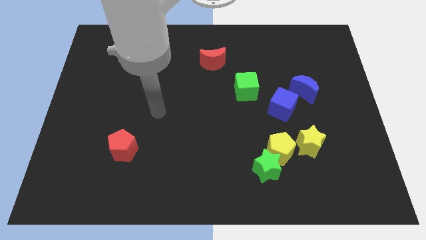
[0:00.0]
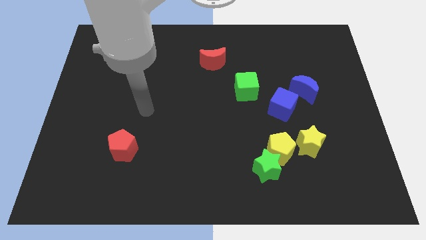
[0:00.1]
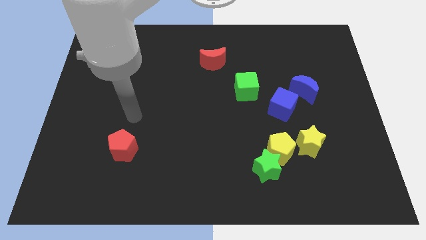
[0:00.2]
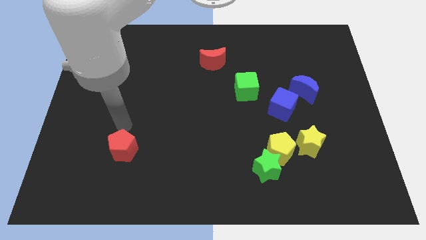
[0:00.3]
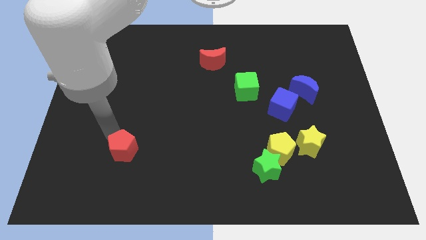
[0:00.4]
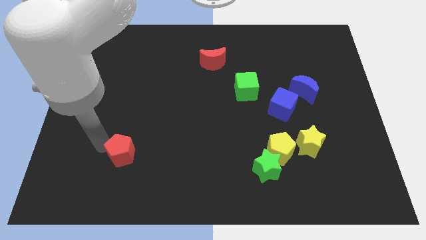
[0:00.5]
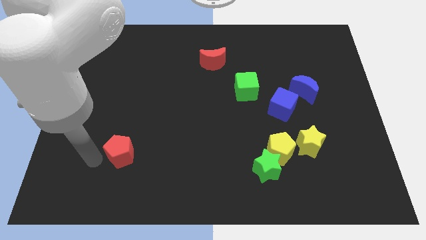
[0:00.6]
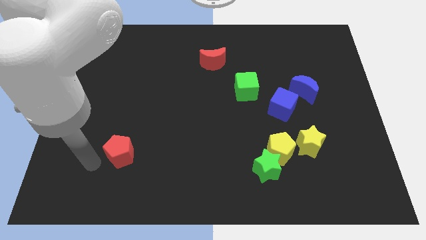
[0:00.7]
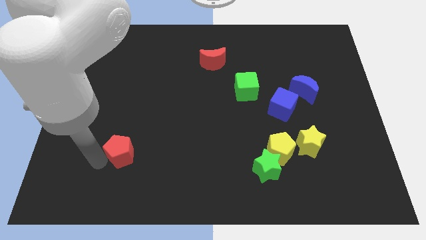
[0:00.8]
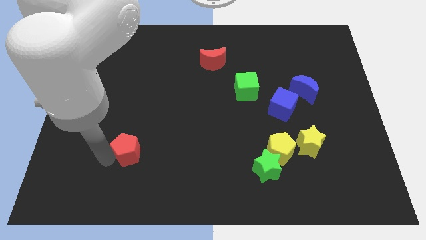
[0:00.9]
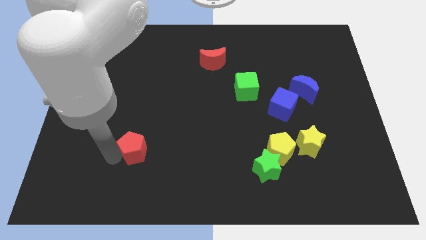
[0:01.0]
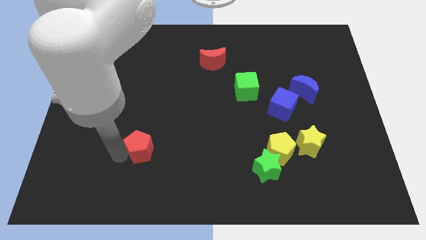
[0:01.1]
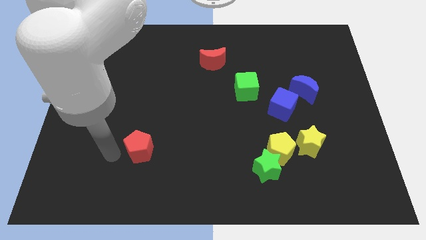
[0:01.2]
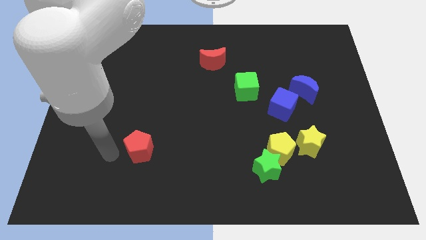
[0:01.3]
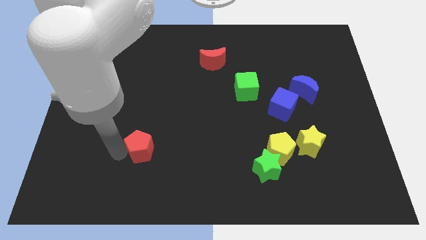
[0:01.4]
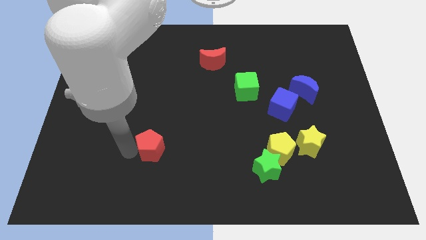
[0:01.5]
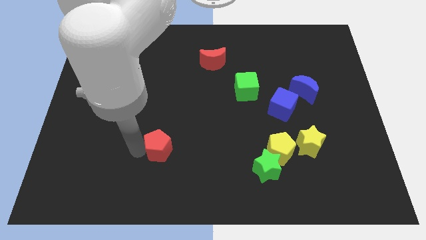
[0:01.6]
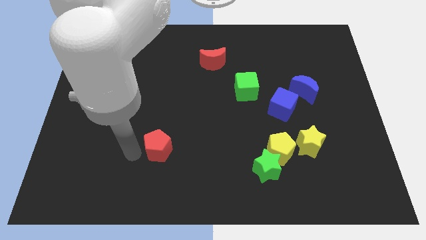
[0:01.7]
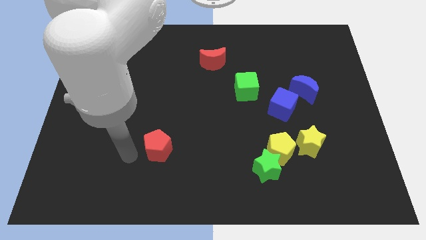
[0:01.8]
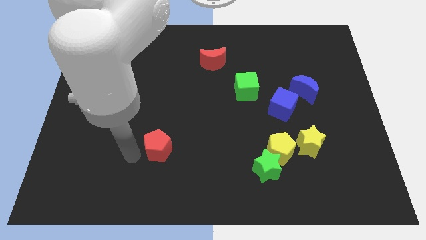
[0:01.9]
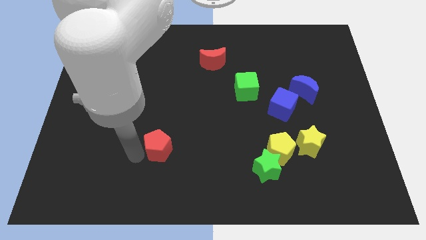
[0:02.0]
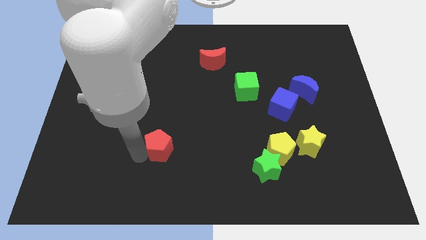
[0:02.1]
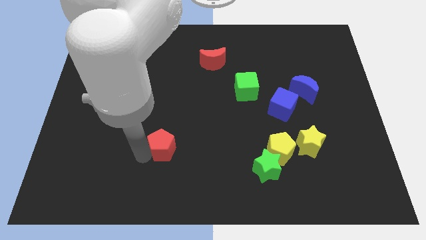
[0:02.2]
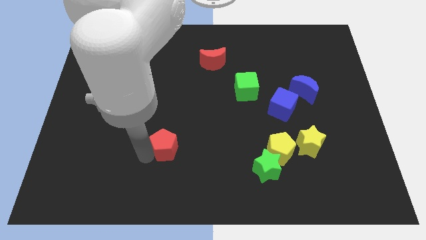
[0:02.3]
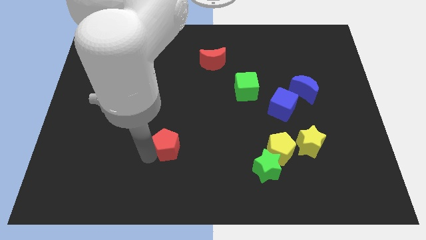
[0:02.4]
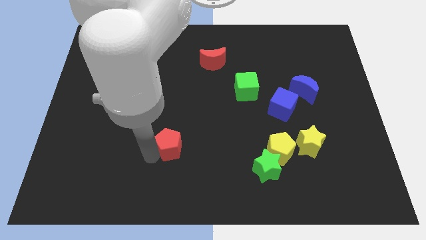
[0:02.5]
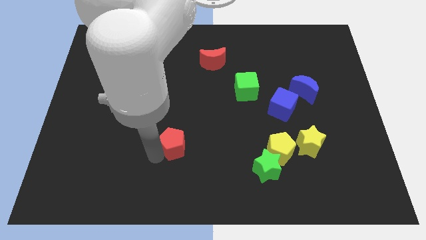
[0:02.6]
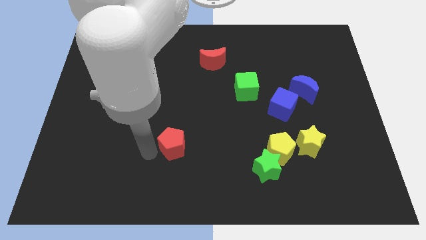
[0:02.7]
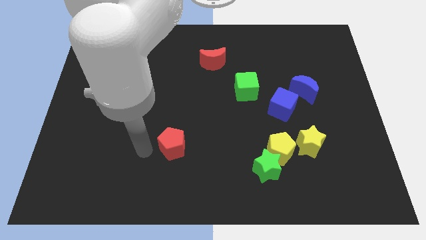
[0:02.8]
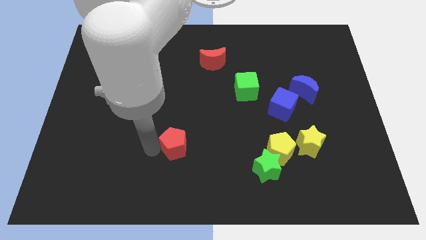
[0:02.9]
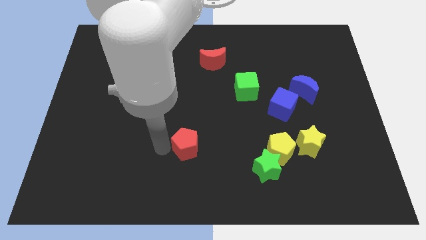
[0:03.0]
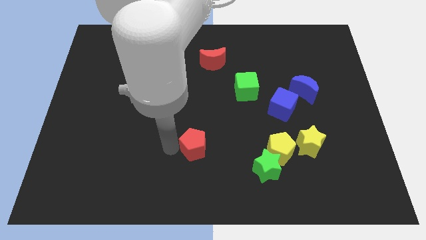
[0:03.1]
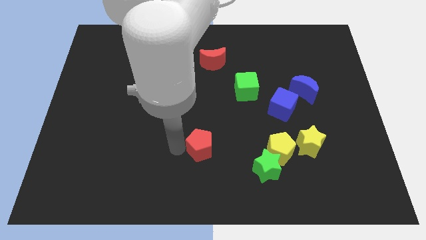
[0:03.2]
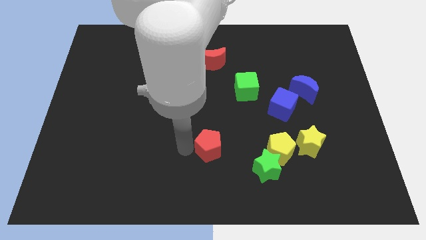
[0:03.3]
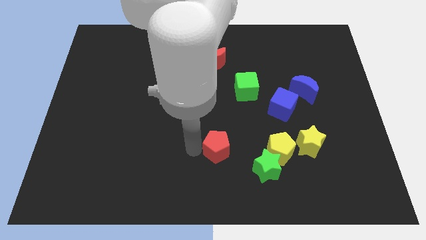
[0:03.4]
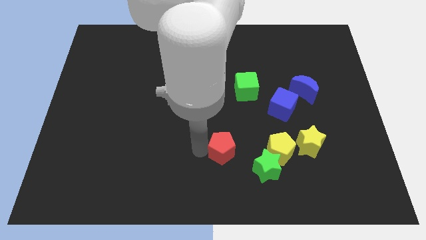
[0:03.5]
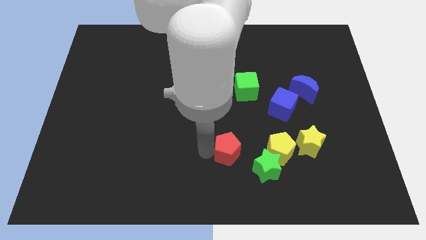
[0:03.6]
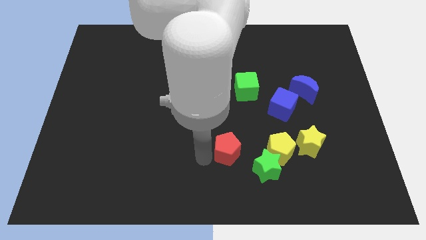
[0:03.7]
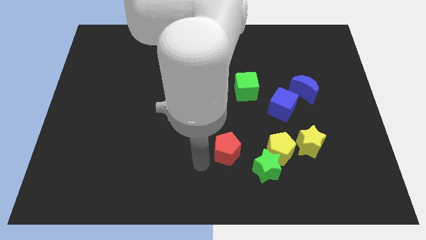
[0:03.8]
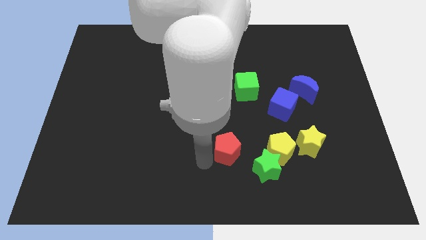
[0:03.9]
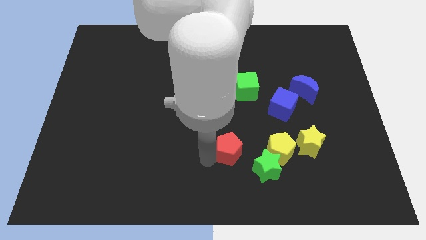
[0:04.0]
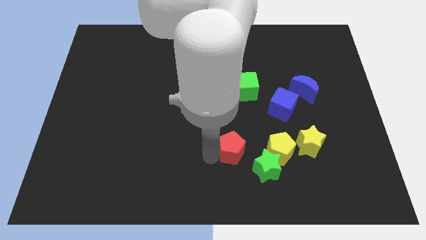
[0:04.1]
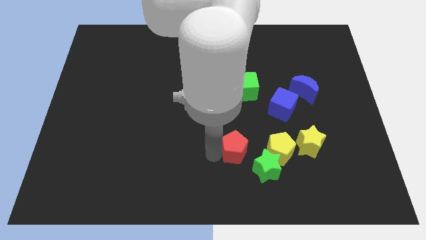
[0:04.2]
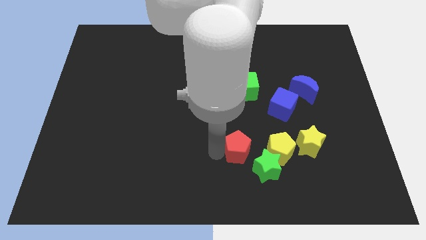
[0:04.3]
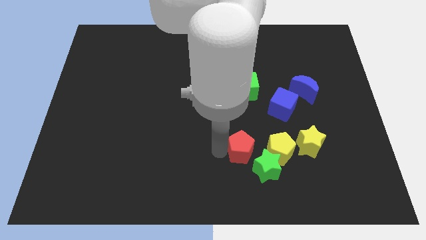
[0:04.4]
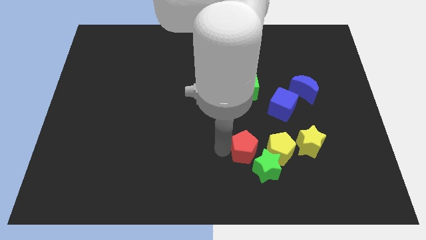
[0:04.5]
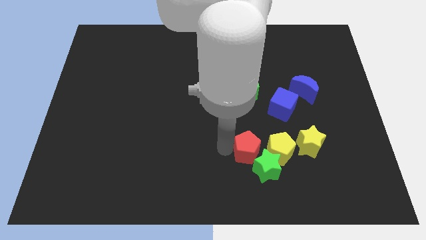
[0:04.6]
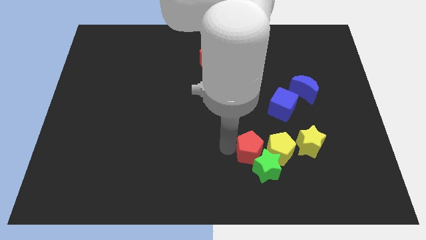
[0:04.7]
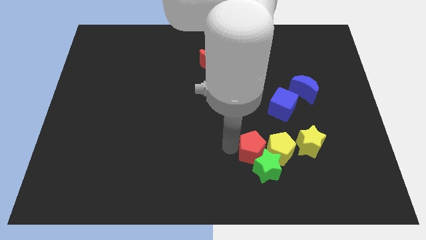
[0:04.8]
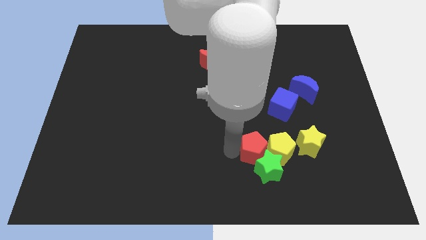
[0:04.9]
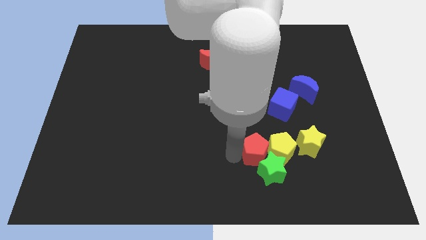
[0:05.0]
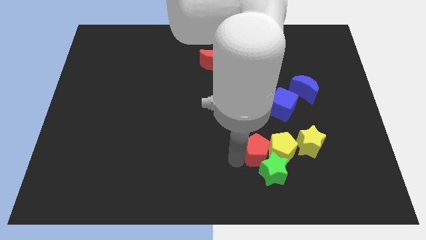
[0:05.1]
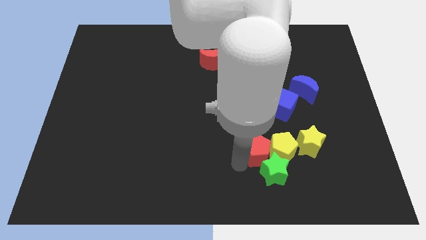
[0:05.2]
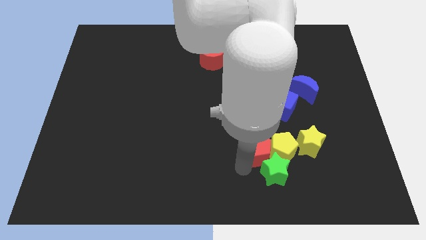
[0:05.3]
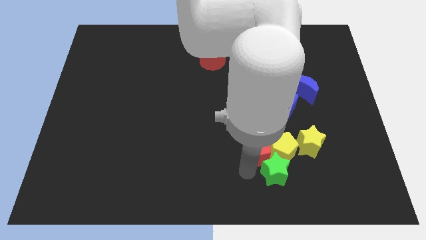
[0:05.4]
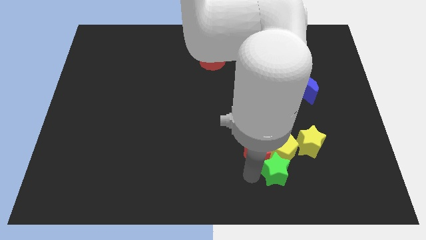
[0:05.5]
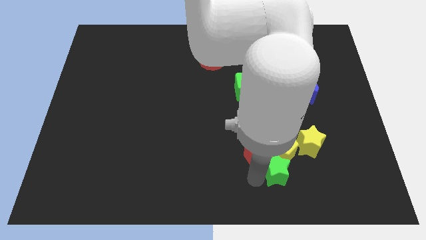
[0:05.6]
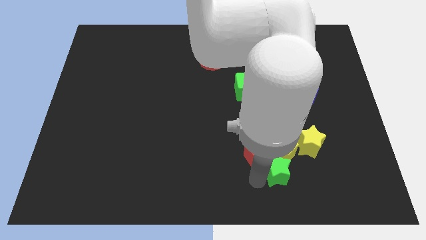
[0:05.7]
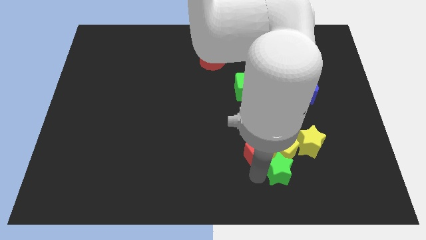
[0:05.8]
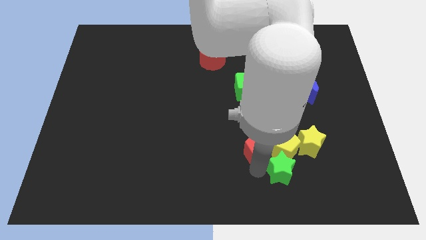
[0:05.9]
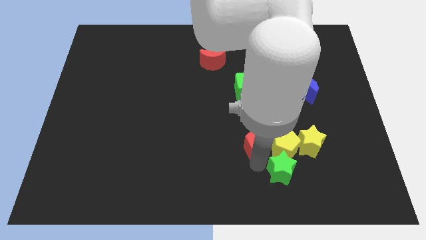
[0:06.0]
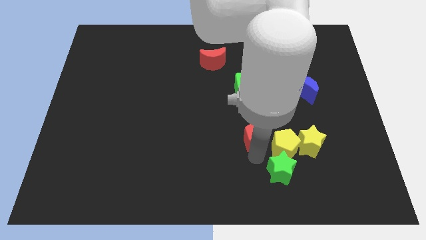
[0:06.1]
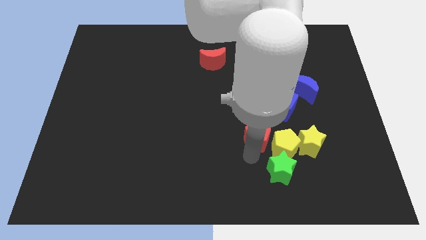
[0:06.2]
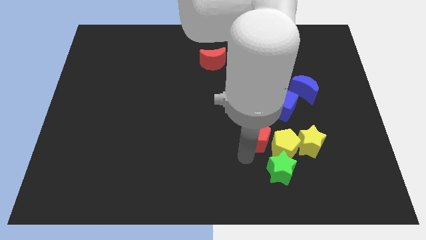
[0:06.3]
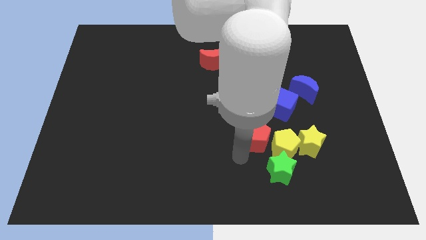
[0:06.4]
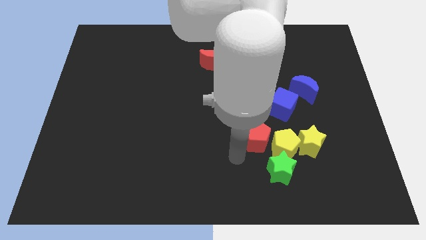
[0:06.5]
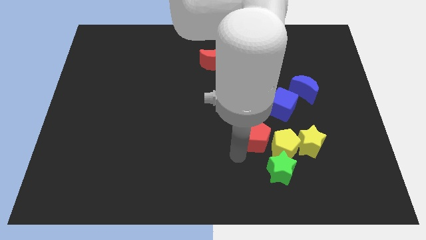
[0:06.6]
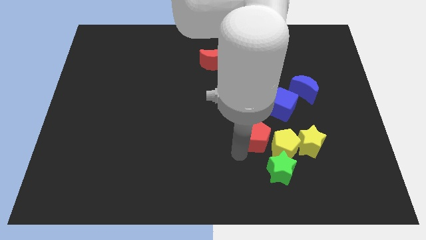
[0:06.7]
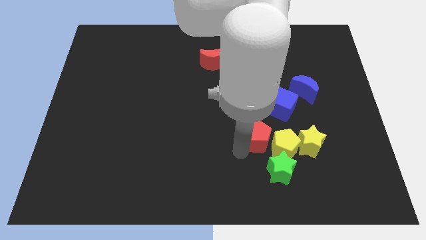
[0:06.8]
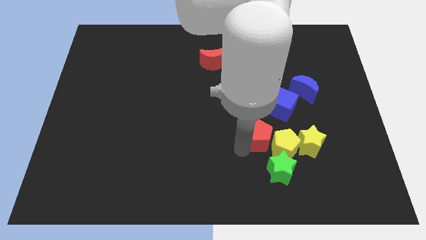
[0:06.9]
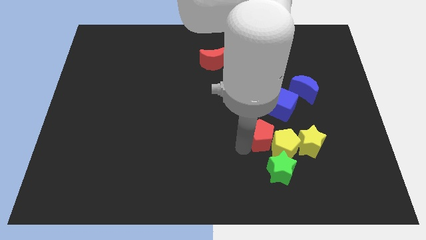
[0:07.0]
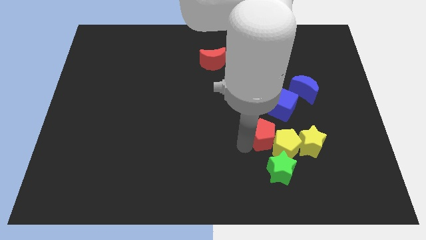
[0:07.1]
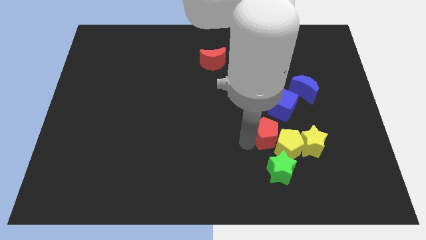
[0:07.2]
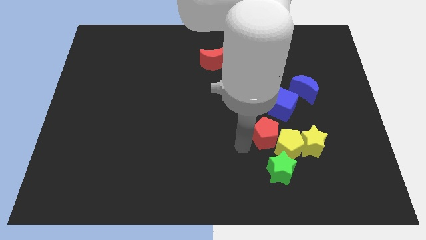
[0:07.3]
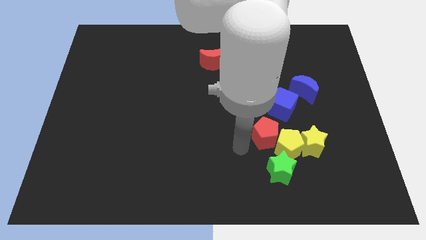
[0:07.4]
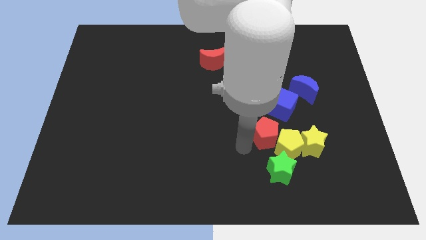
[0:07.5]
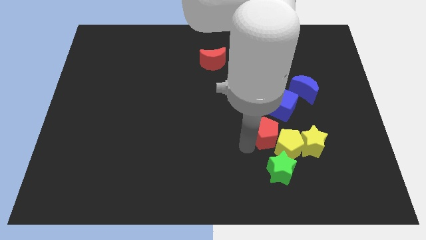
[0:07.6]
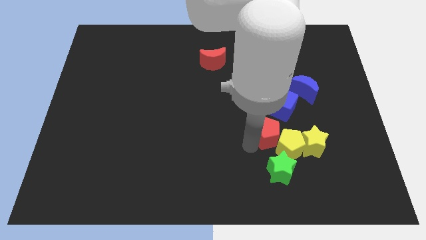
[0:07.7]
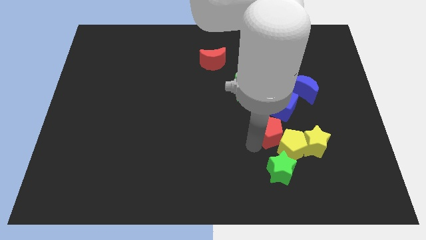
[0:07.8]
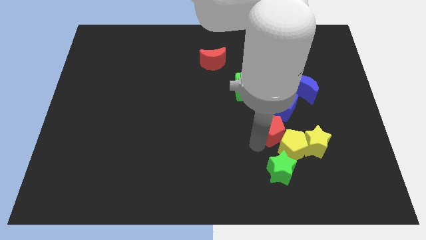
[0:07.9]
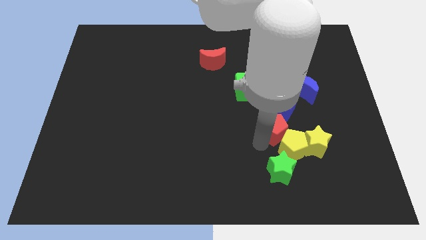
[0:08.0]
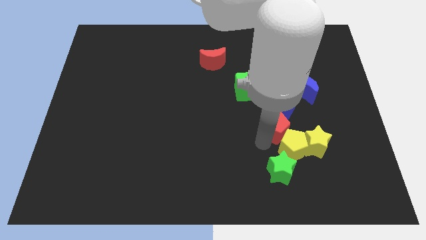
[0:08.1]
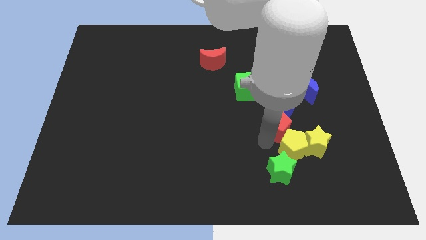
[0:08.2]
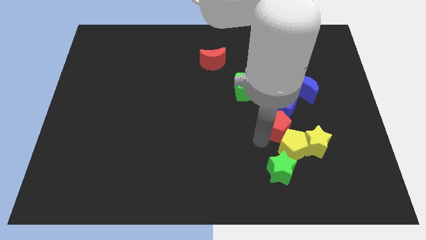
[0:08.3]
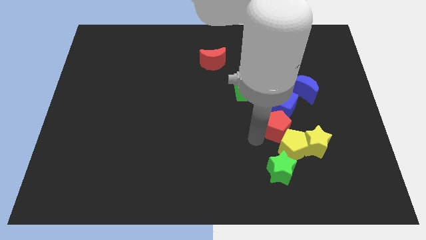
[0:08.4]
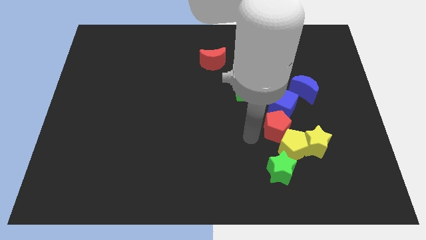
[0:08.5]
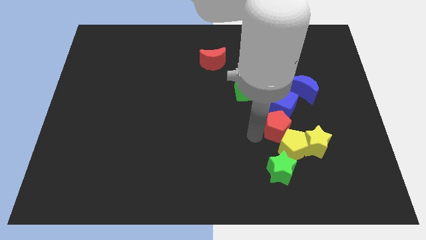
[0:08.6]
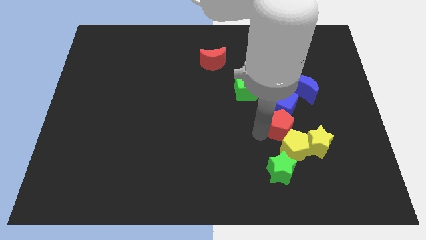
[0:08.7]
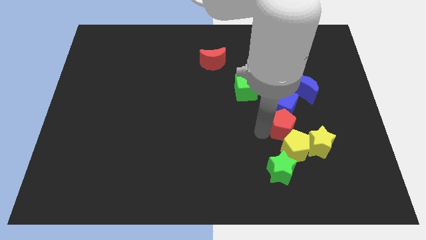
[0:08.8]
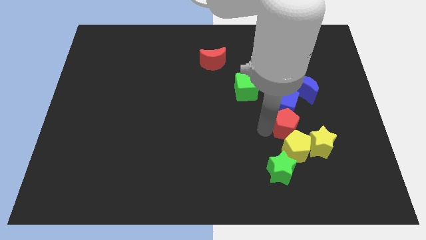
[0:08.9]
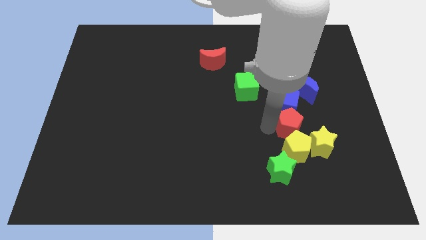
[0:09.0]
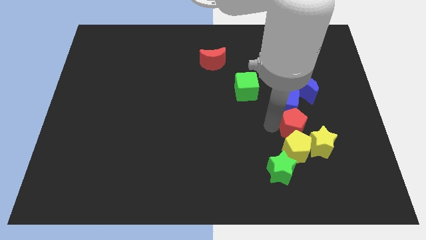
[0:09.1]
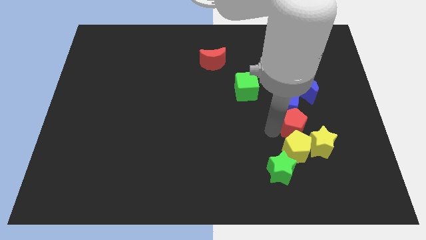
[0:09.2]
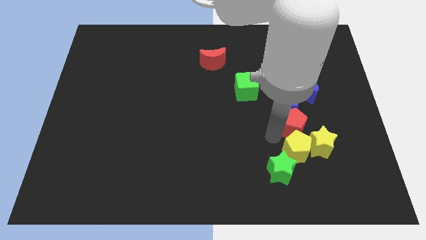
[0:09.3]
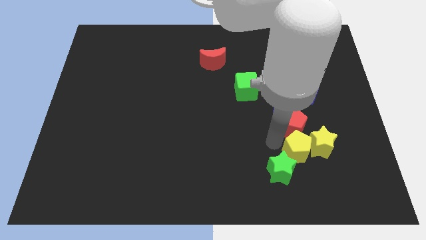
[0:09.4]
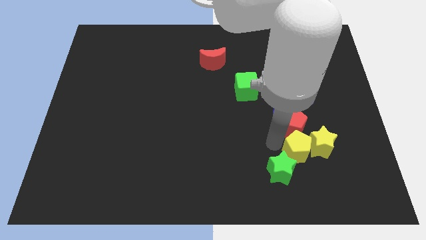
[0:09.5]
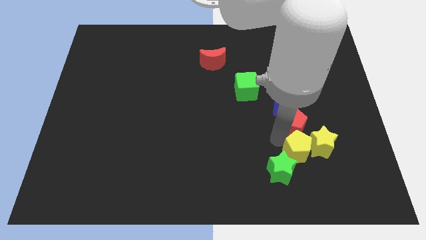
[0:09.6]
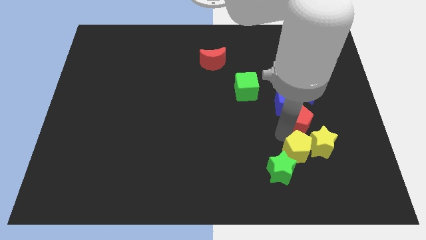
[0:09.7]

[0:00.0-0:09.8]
move the red pentagon to the top of the yellow star
